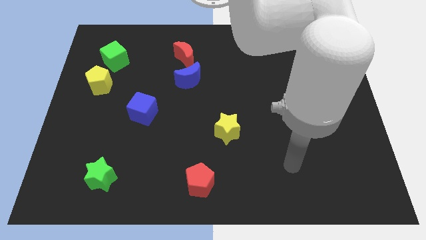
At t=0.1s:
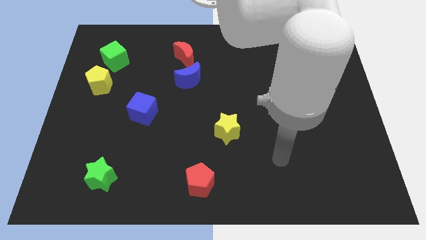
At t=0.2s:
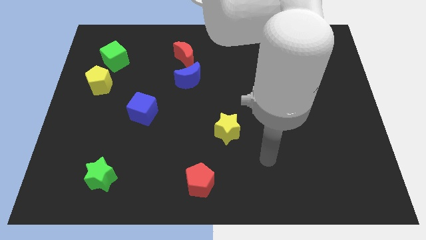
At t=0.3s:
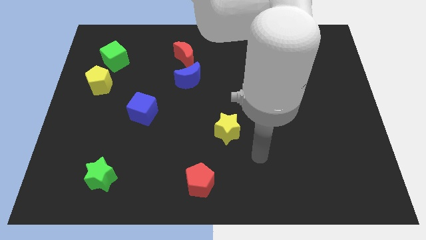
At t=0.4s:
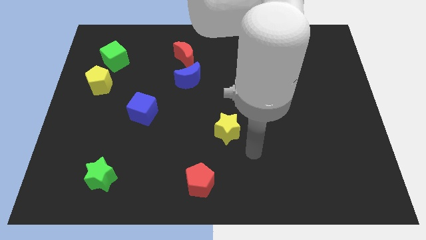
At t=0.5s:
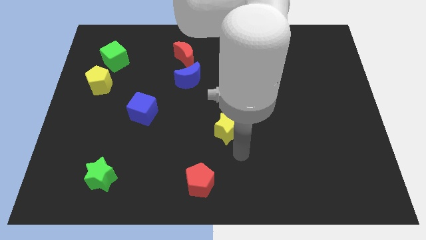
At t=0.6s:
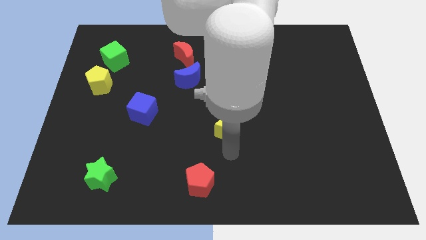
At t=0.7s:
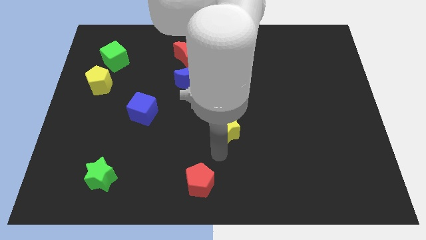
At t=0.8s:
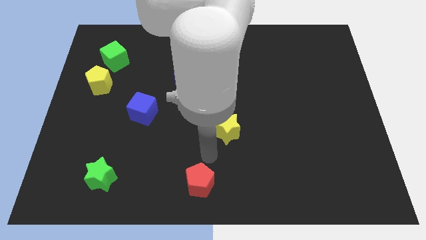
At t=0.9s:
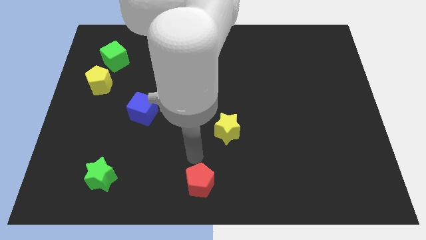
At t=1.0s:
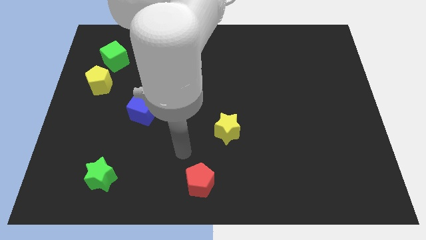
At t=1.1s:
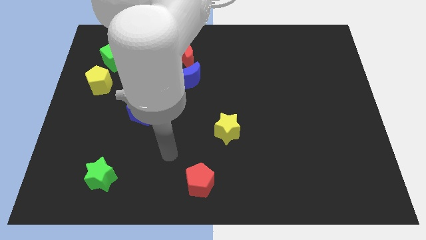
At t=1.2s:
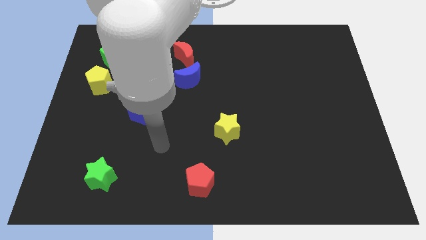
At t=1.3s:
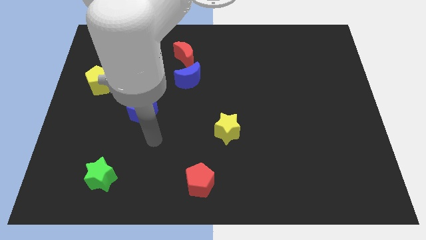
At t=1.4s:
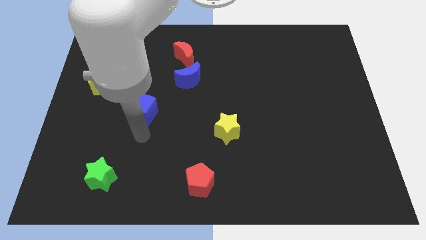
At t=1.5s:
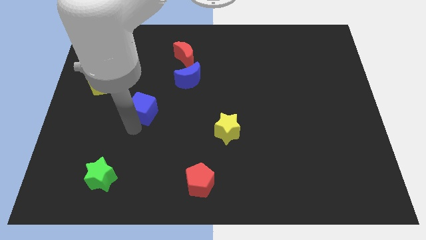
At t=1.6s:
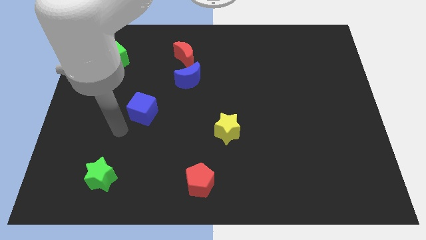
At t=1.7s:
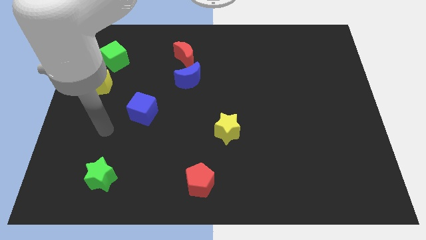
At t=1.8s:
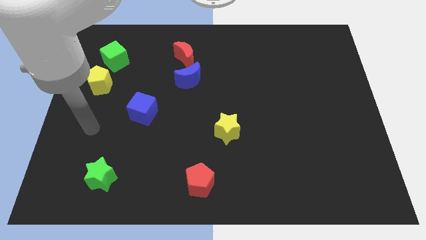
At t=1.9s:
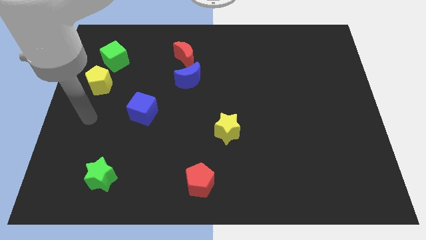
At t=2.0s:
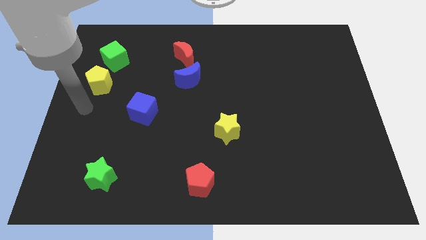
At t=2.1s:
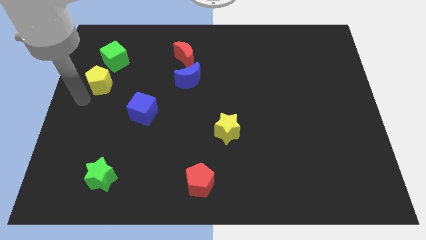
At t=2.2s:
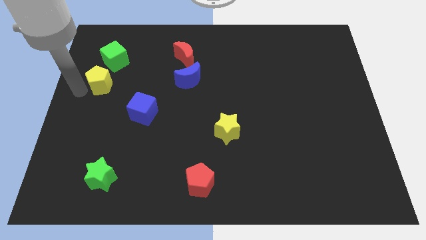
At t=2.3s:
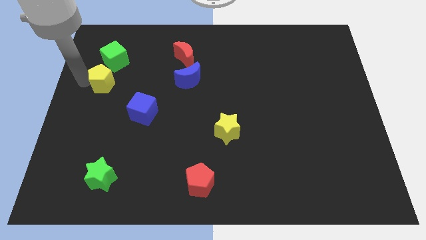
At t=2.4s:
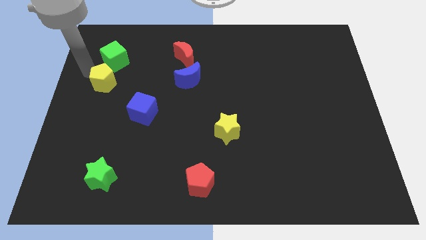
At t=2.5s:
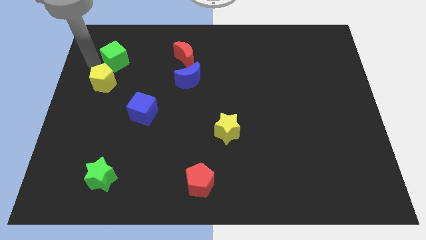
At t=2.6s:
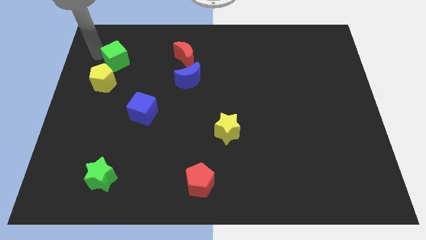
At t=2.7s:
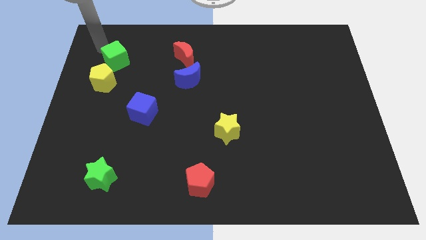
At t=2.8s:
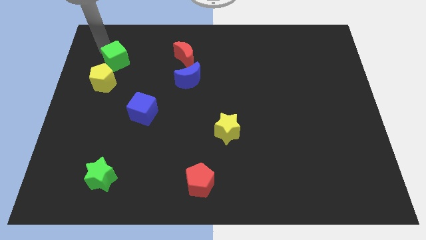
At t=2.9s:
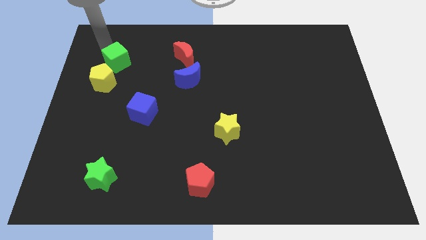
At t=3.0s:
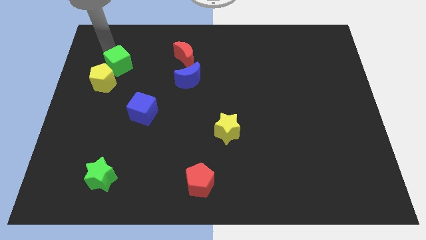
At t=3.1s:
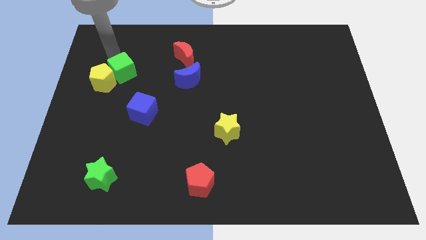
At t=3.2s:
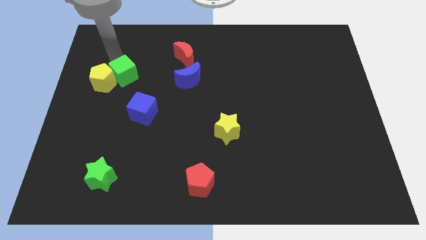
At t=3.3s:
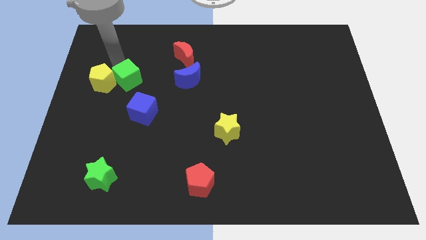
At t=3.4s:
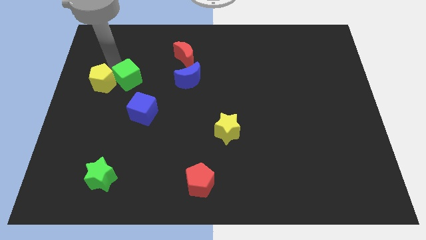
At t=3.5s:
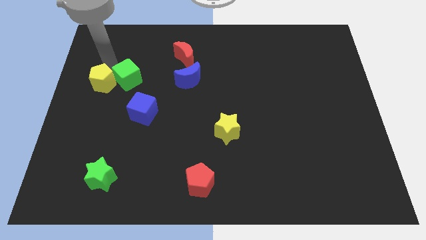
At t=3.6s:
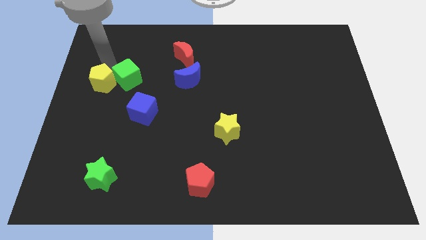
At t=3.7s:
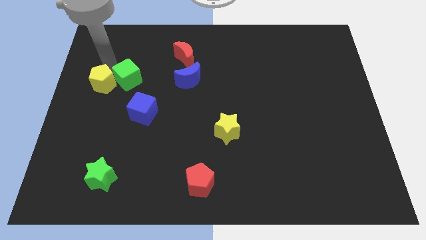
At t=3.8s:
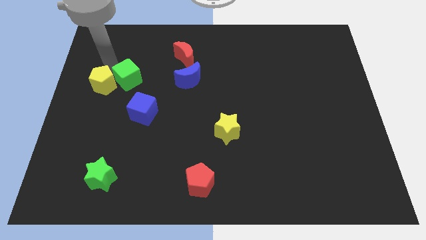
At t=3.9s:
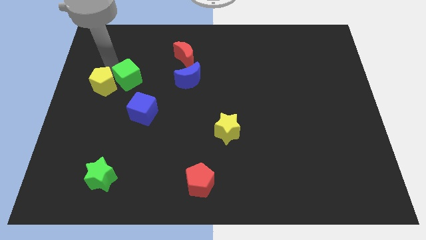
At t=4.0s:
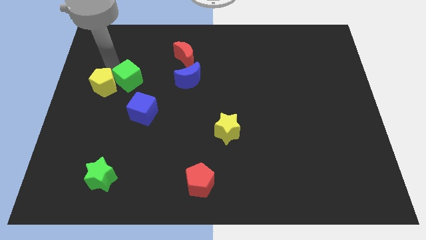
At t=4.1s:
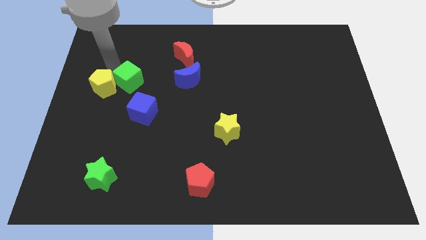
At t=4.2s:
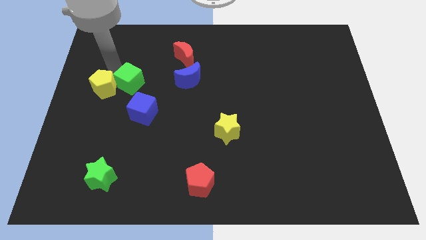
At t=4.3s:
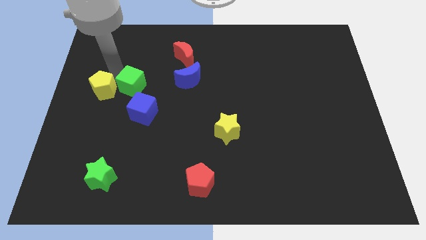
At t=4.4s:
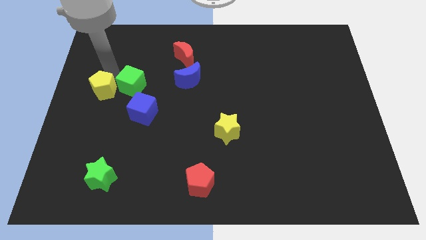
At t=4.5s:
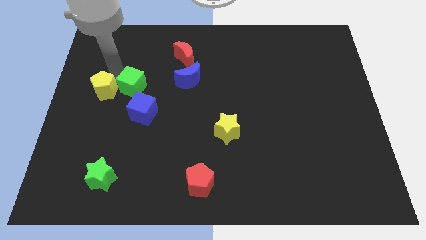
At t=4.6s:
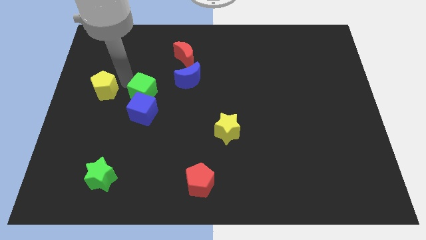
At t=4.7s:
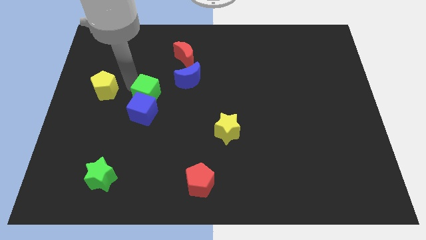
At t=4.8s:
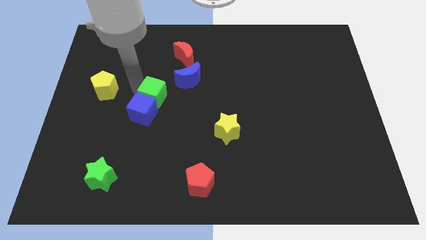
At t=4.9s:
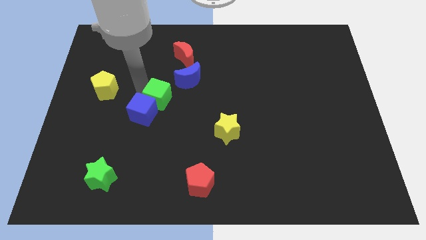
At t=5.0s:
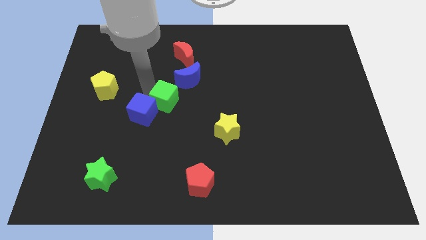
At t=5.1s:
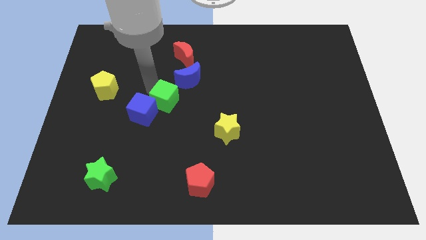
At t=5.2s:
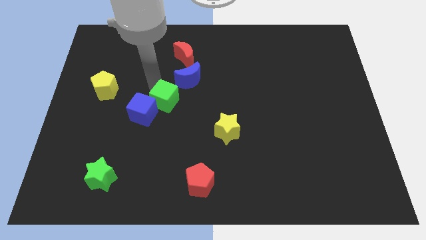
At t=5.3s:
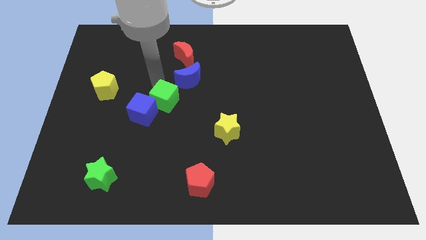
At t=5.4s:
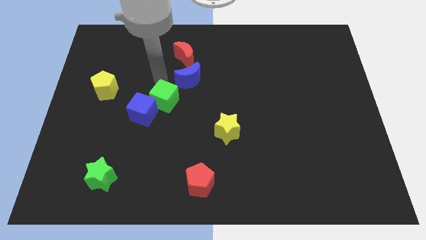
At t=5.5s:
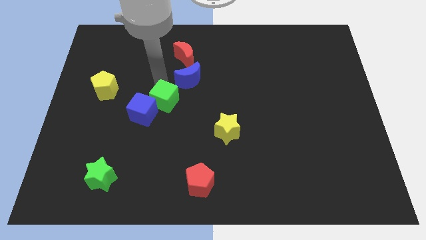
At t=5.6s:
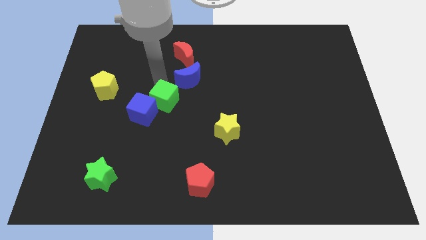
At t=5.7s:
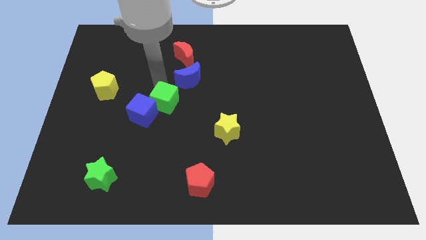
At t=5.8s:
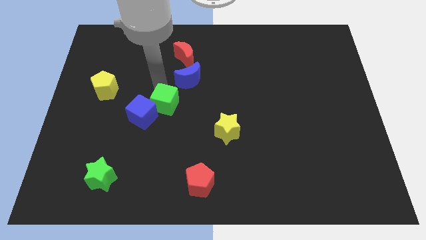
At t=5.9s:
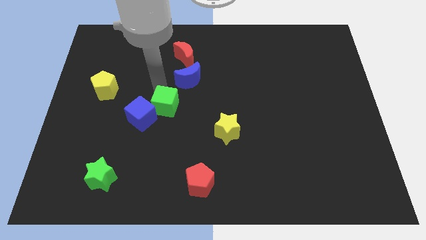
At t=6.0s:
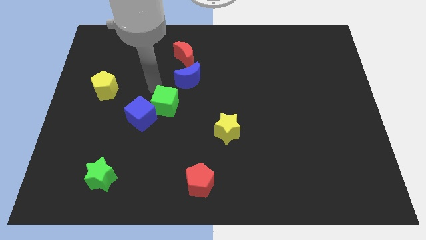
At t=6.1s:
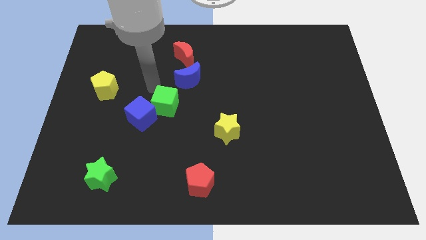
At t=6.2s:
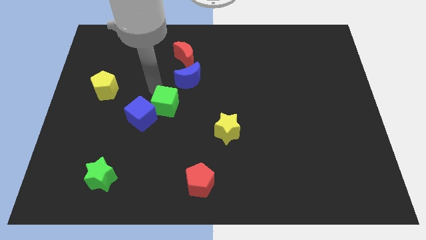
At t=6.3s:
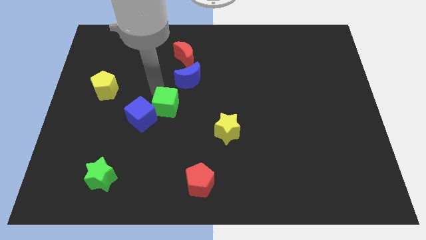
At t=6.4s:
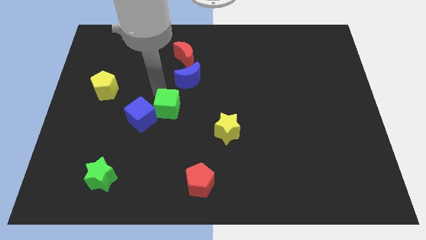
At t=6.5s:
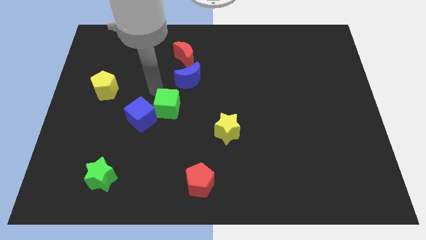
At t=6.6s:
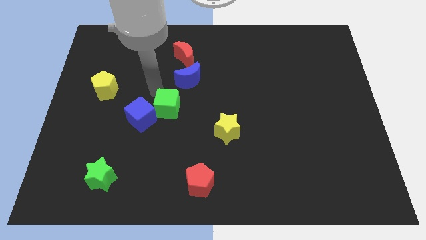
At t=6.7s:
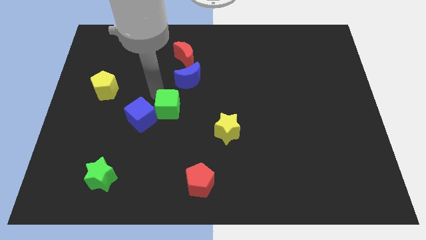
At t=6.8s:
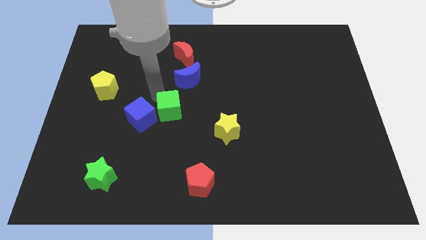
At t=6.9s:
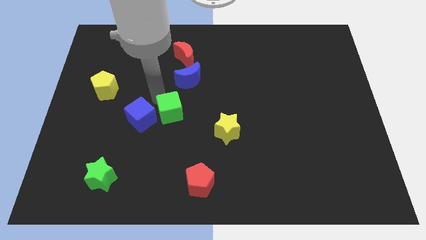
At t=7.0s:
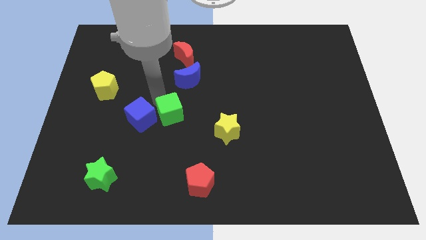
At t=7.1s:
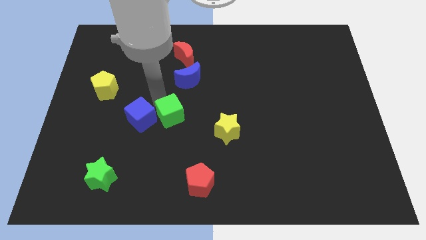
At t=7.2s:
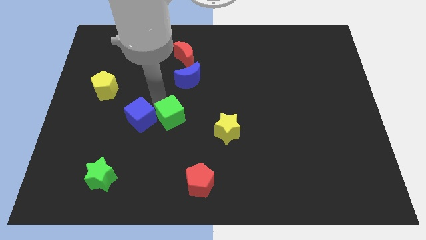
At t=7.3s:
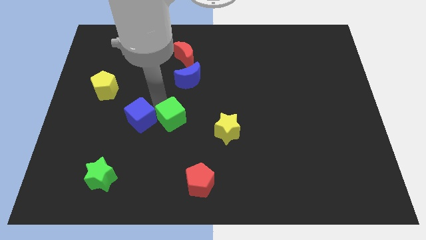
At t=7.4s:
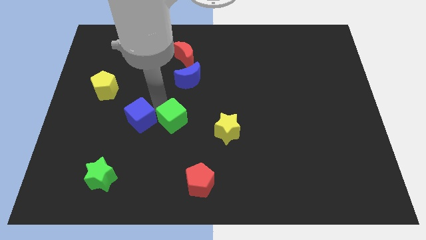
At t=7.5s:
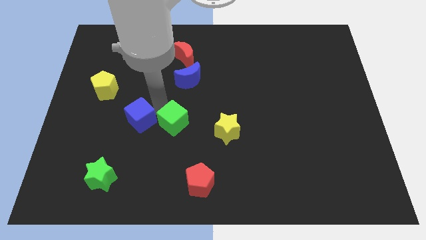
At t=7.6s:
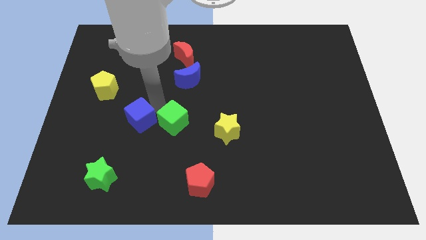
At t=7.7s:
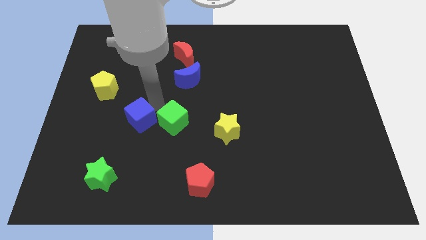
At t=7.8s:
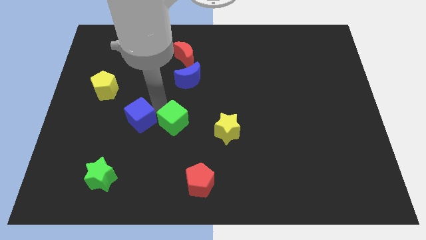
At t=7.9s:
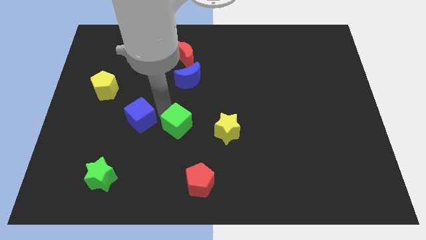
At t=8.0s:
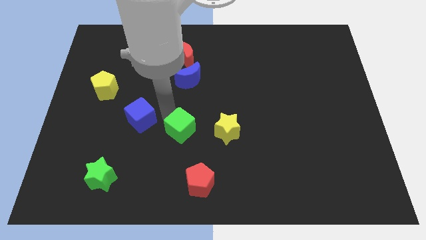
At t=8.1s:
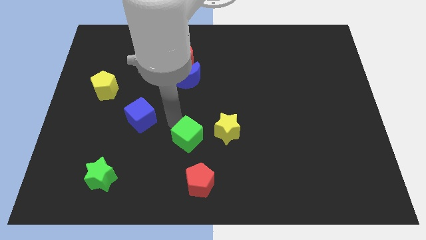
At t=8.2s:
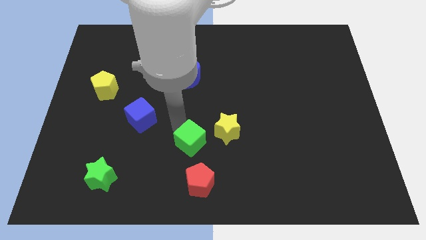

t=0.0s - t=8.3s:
put the green cube diagonally down and to the left of the yellow star
